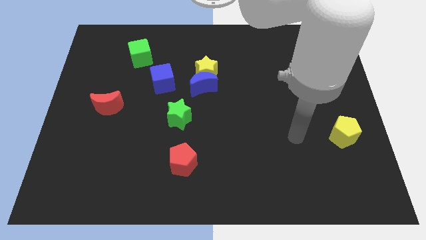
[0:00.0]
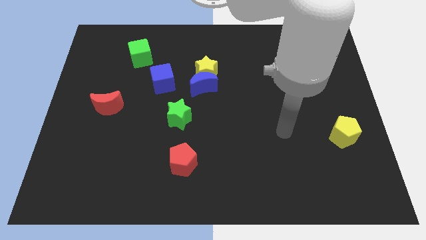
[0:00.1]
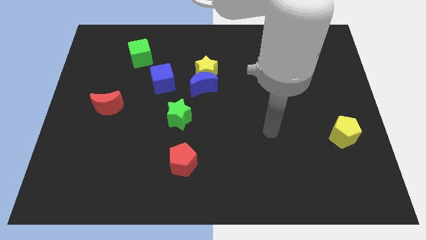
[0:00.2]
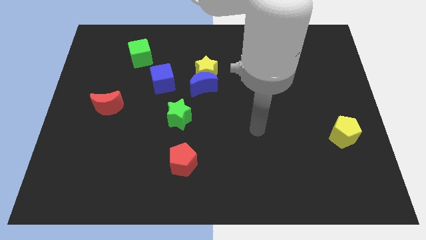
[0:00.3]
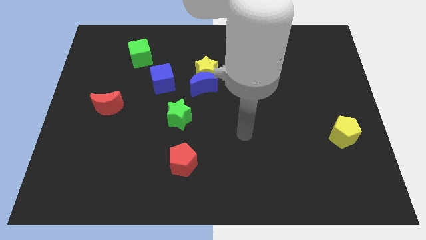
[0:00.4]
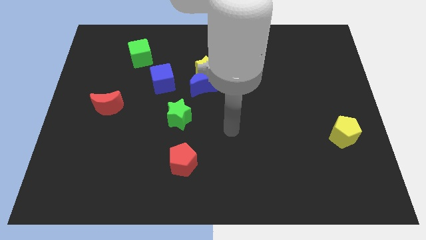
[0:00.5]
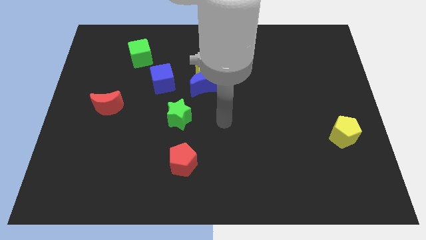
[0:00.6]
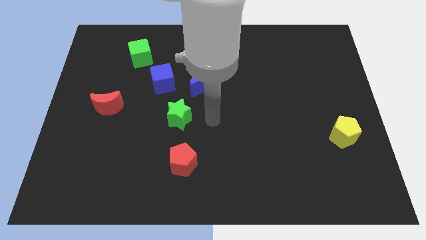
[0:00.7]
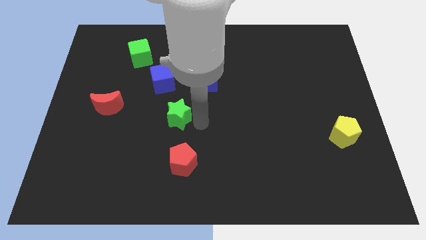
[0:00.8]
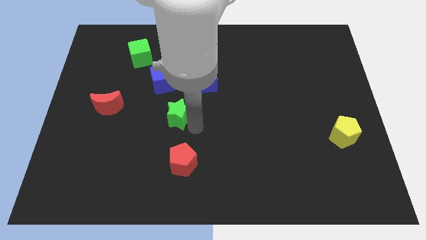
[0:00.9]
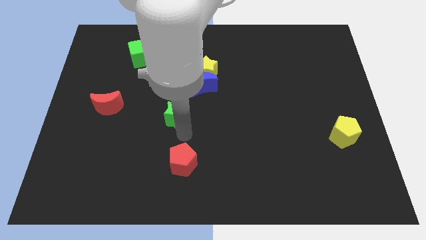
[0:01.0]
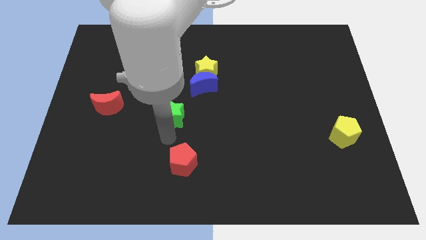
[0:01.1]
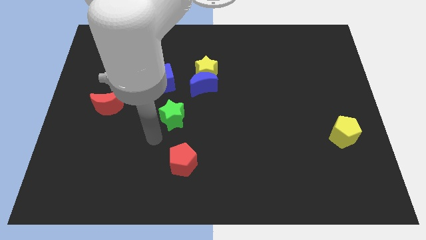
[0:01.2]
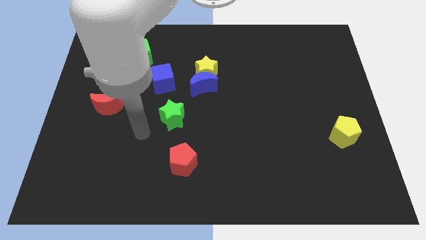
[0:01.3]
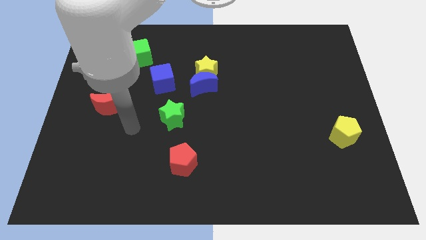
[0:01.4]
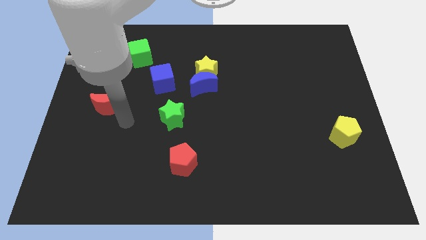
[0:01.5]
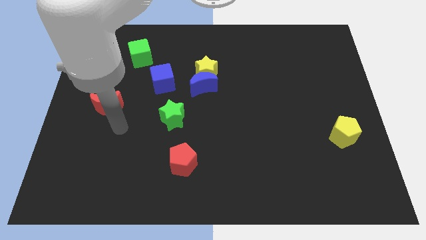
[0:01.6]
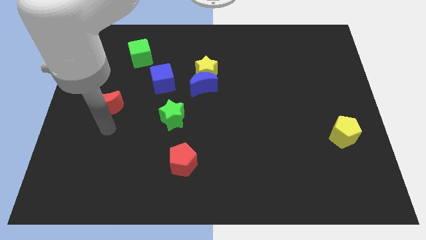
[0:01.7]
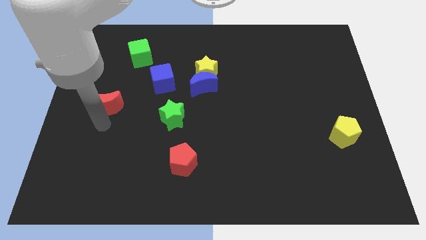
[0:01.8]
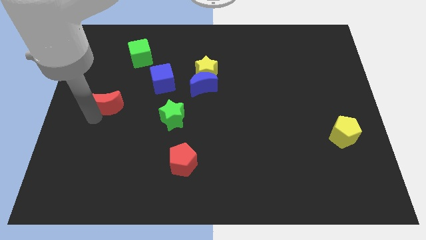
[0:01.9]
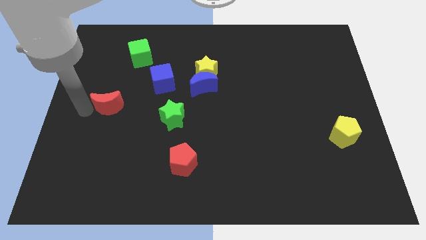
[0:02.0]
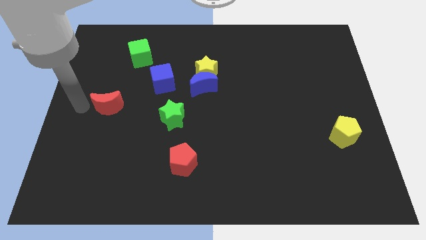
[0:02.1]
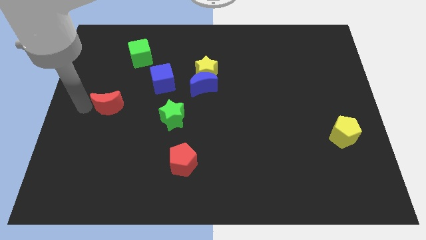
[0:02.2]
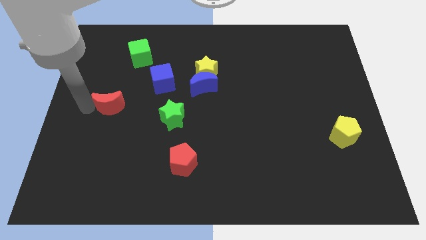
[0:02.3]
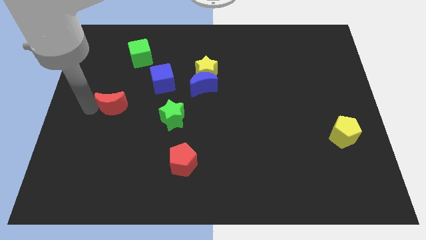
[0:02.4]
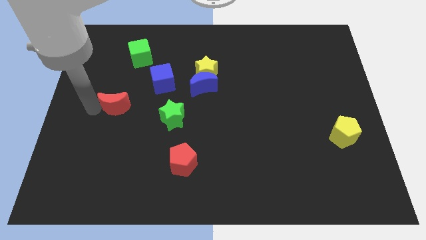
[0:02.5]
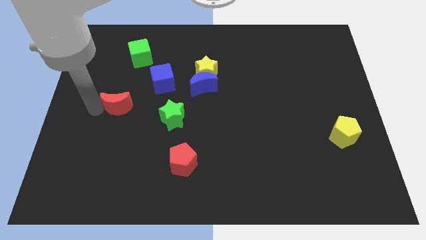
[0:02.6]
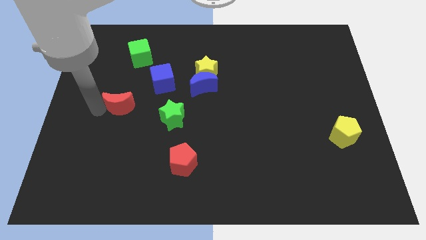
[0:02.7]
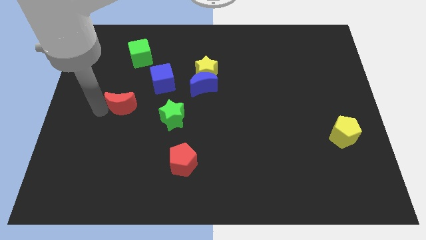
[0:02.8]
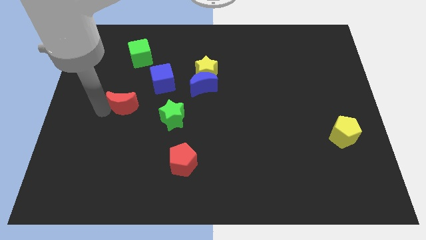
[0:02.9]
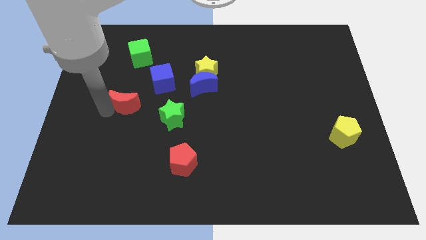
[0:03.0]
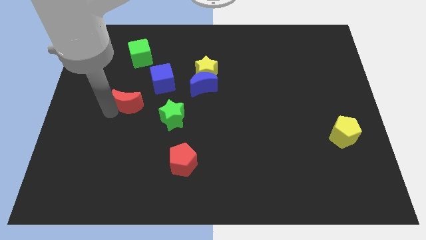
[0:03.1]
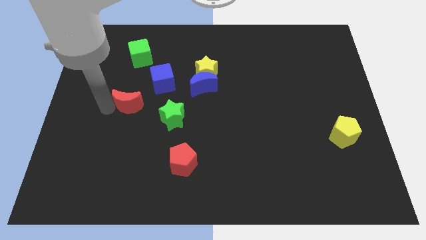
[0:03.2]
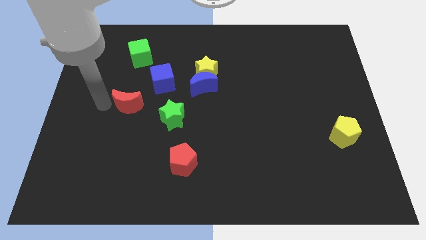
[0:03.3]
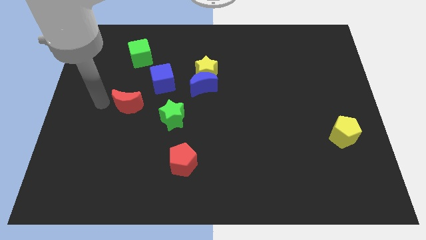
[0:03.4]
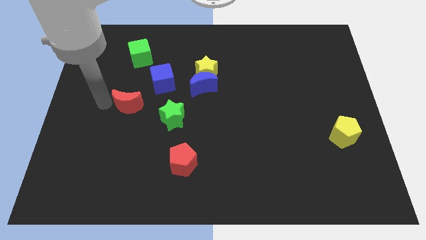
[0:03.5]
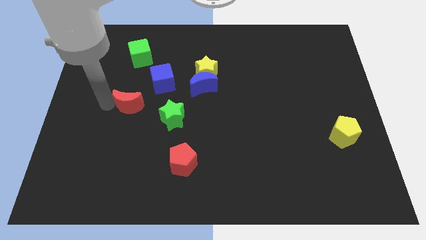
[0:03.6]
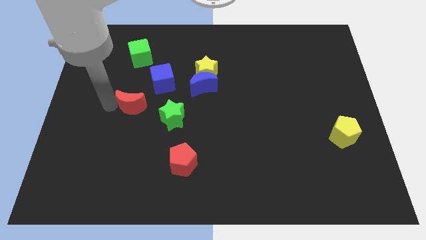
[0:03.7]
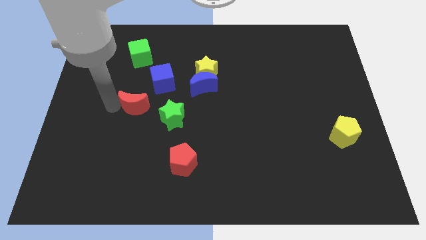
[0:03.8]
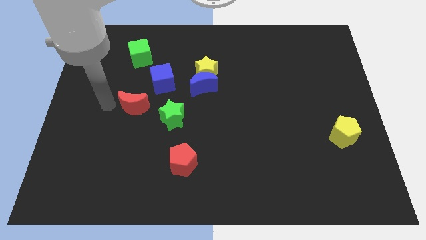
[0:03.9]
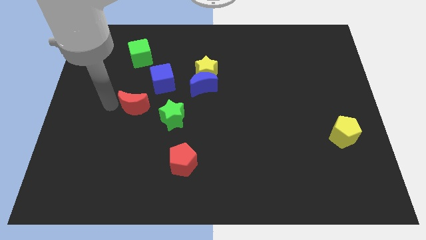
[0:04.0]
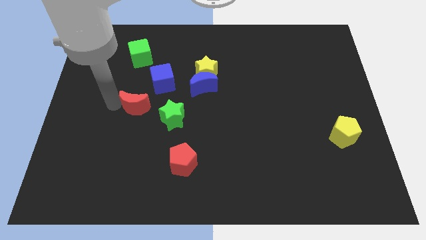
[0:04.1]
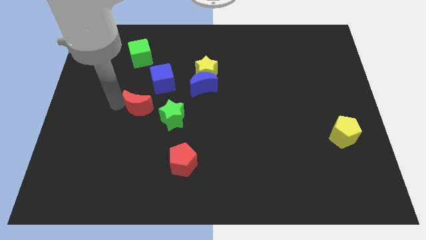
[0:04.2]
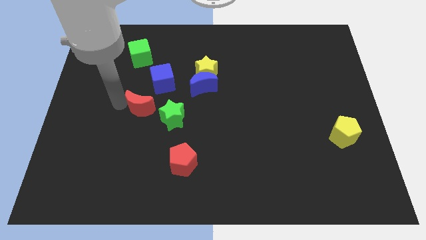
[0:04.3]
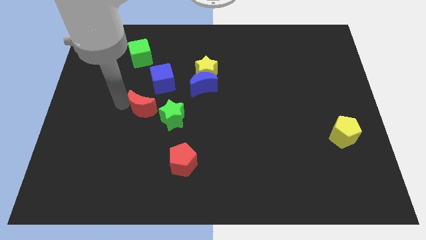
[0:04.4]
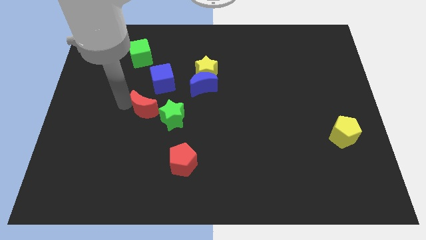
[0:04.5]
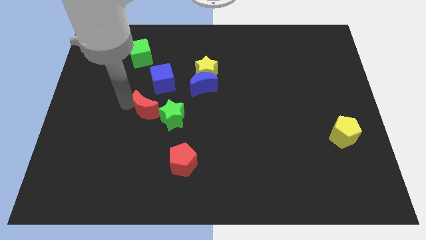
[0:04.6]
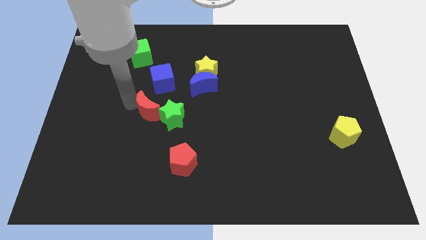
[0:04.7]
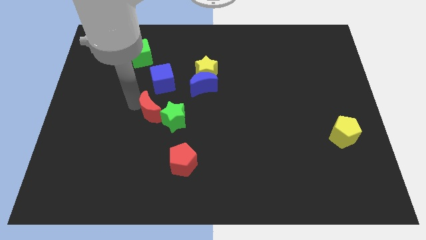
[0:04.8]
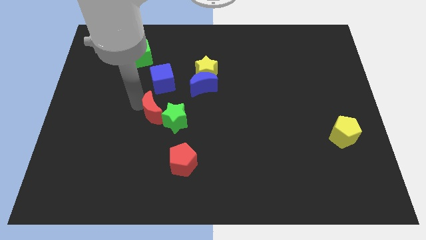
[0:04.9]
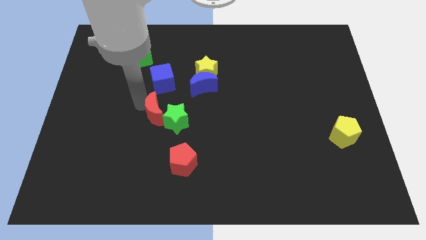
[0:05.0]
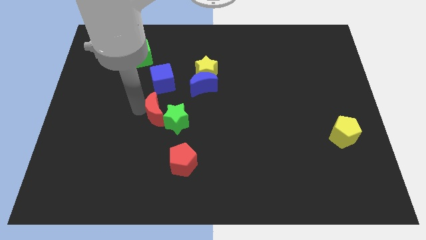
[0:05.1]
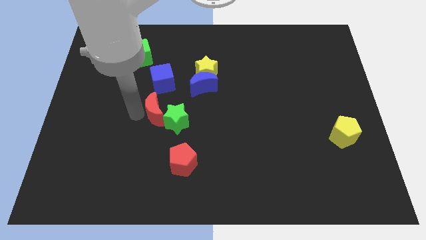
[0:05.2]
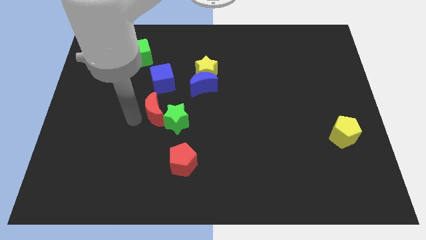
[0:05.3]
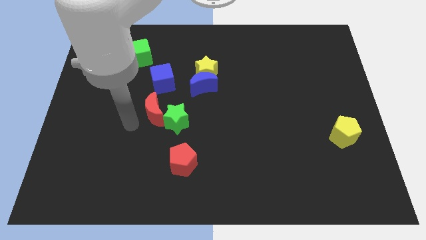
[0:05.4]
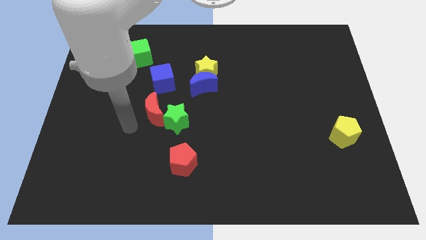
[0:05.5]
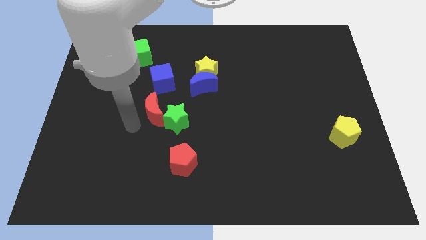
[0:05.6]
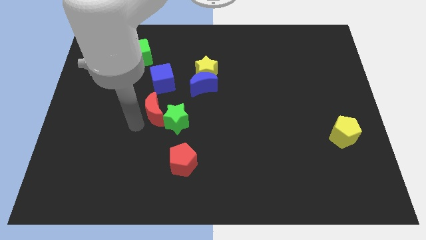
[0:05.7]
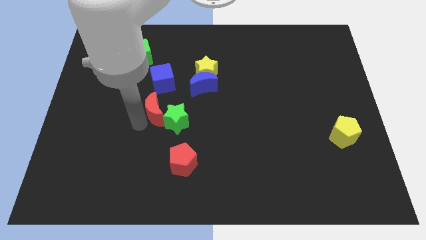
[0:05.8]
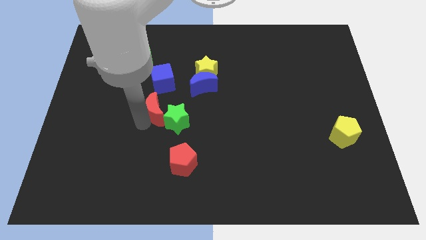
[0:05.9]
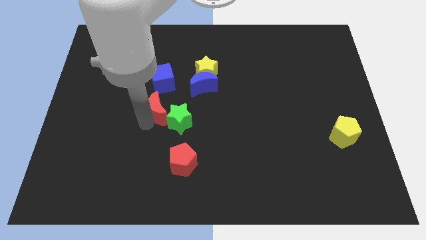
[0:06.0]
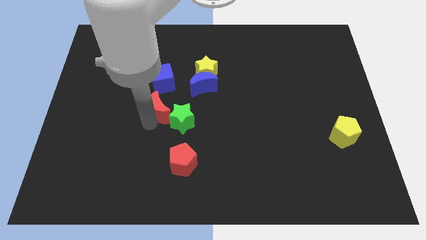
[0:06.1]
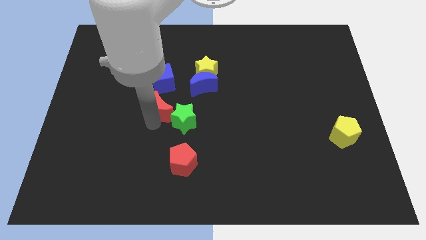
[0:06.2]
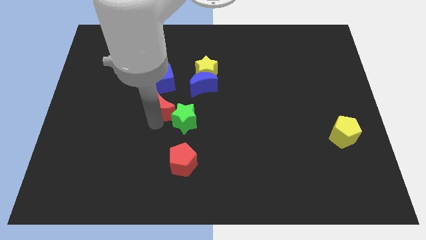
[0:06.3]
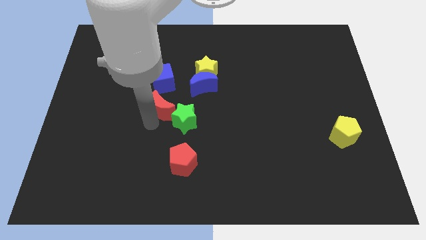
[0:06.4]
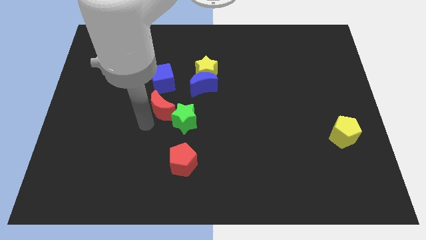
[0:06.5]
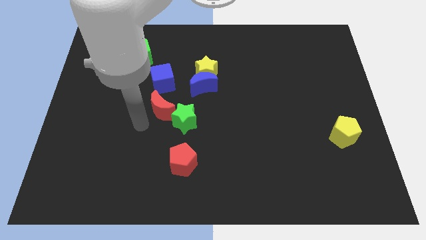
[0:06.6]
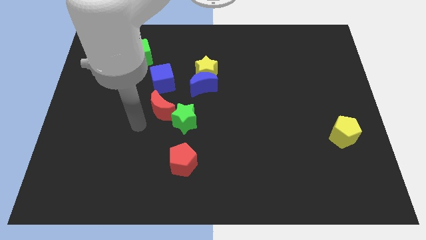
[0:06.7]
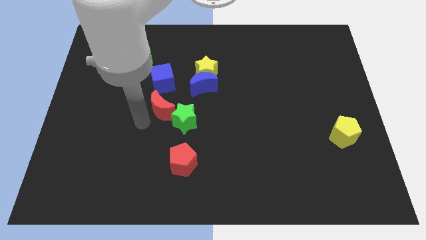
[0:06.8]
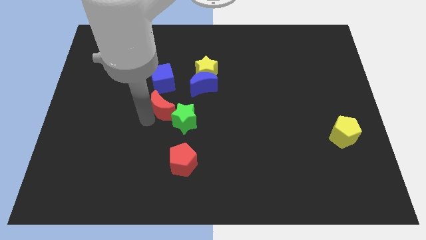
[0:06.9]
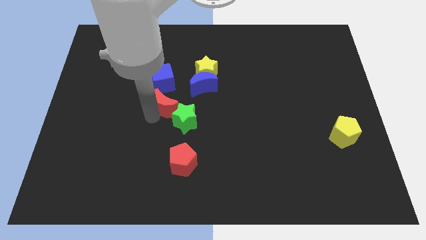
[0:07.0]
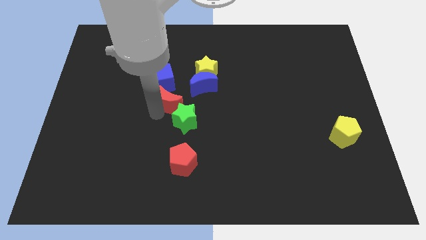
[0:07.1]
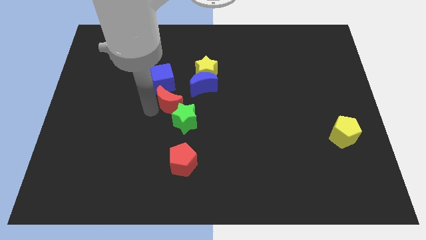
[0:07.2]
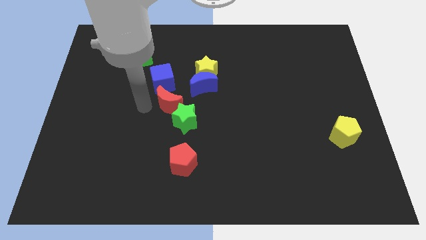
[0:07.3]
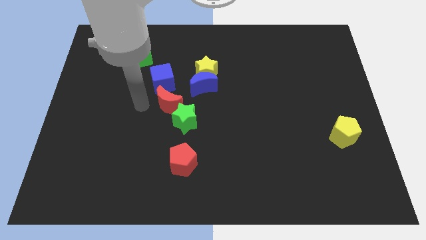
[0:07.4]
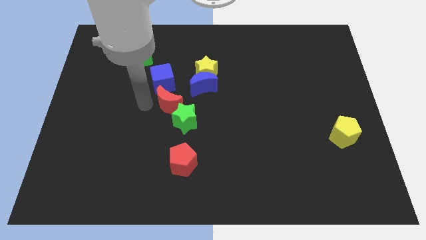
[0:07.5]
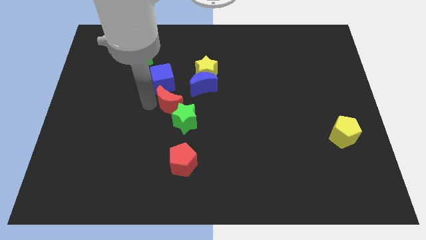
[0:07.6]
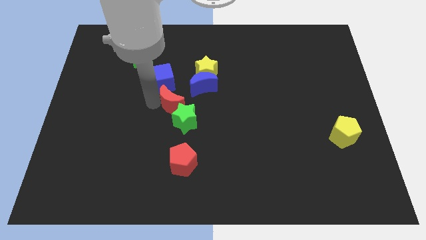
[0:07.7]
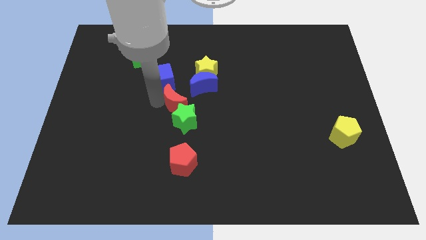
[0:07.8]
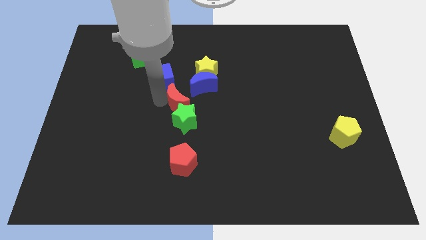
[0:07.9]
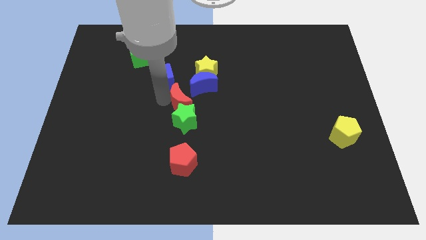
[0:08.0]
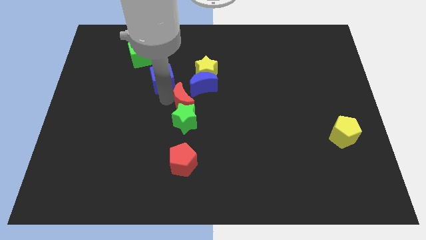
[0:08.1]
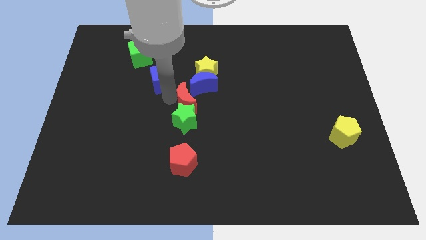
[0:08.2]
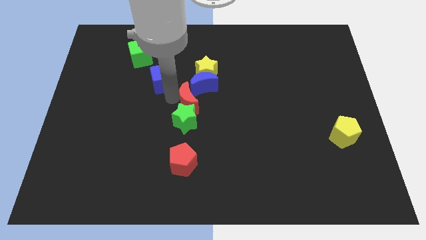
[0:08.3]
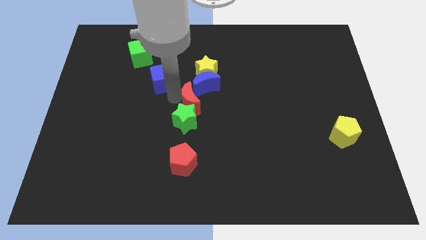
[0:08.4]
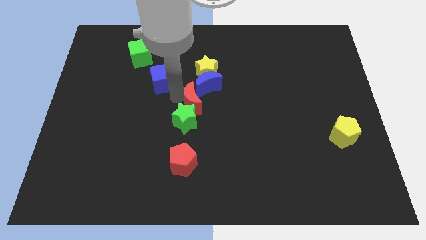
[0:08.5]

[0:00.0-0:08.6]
slide the red moon to the right
